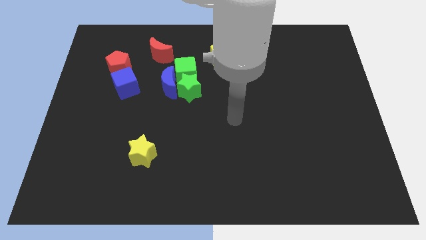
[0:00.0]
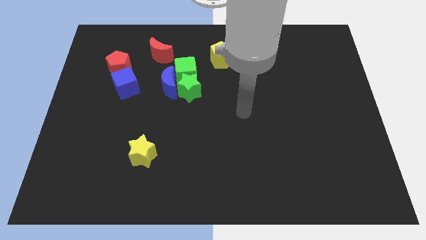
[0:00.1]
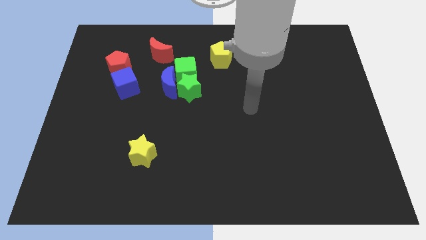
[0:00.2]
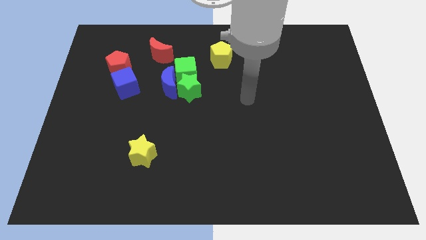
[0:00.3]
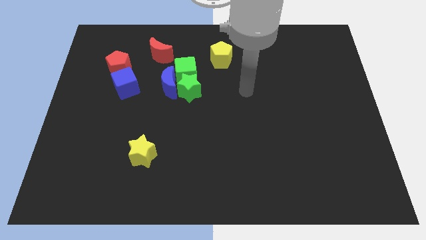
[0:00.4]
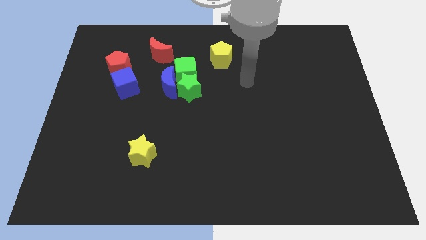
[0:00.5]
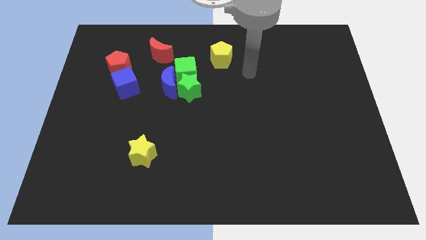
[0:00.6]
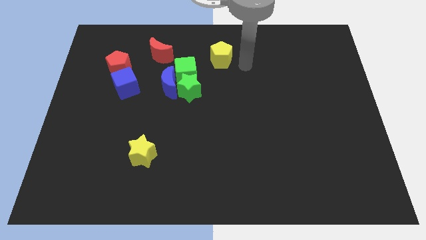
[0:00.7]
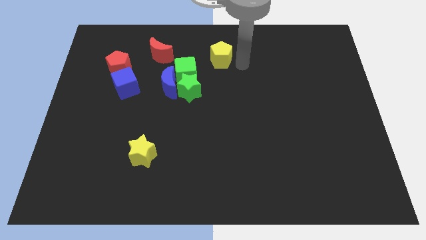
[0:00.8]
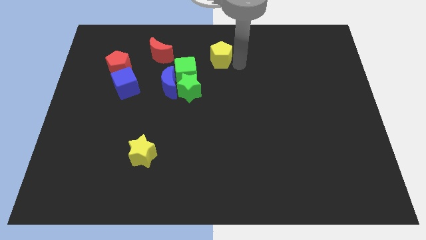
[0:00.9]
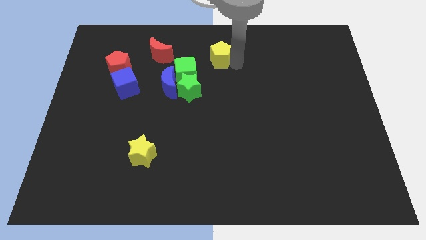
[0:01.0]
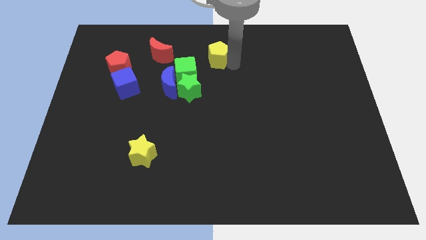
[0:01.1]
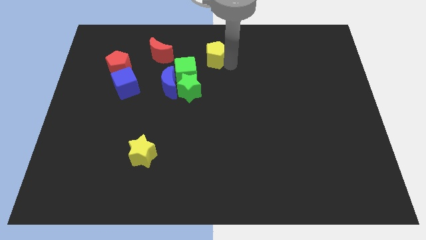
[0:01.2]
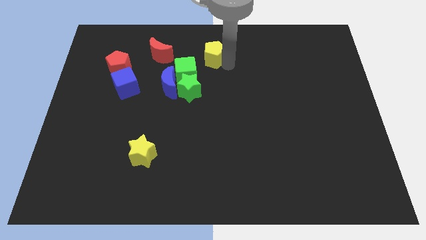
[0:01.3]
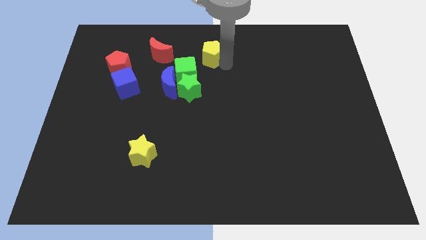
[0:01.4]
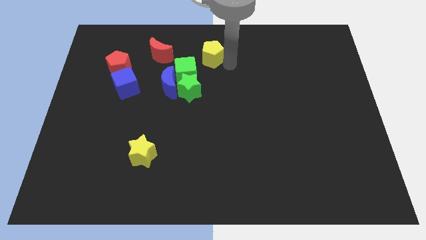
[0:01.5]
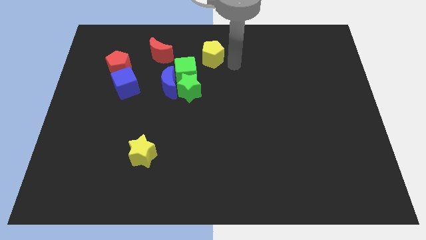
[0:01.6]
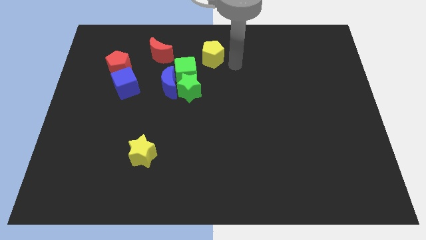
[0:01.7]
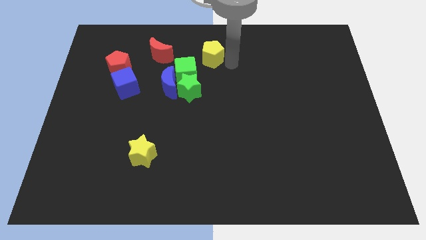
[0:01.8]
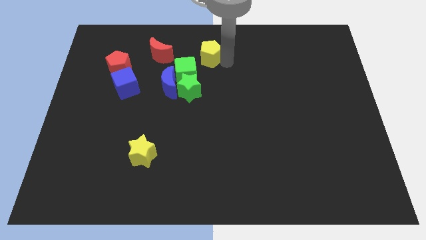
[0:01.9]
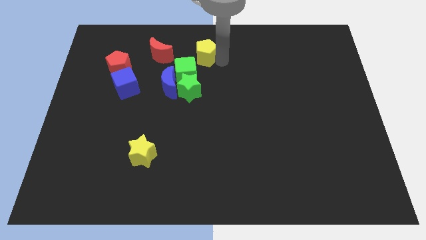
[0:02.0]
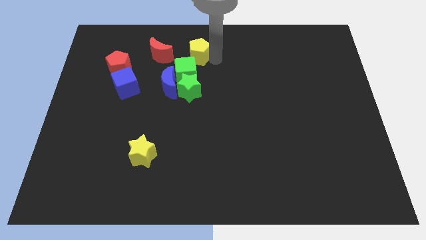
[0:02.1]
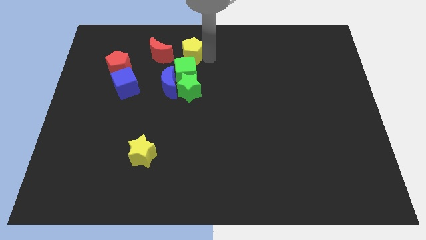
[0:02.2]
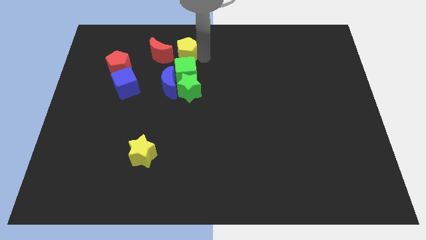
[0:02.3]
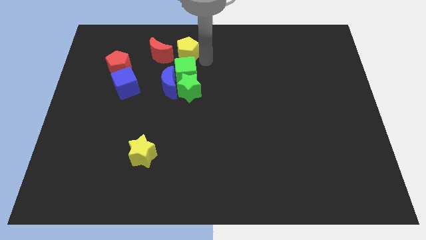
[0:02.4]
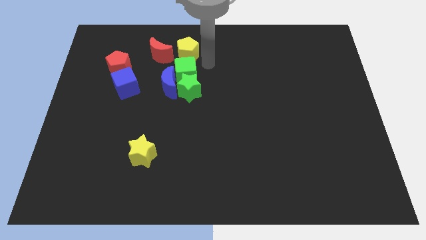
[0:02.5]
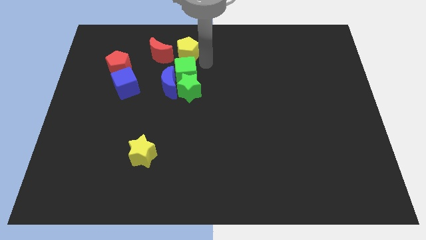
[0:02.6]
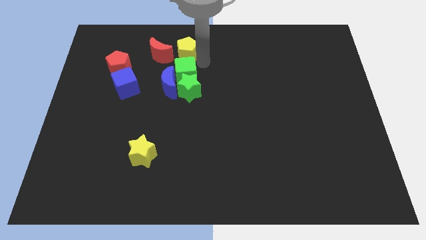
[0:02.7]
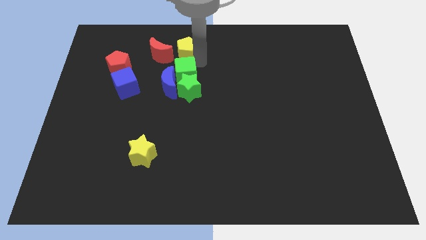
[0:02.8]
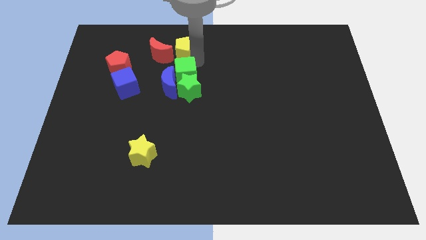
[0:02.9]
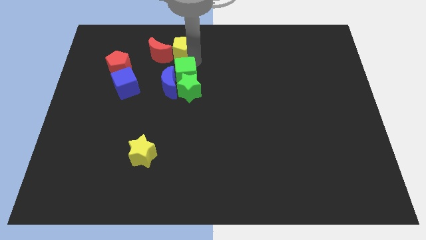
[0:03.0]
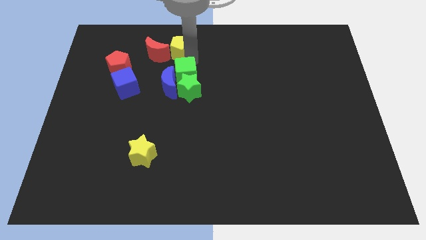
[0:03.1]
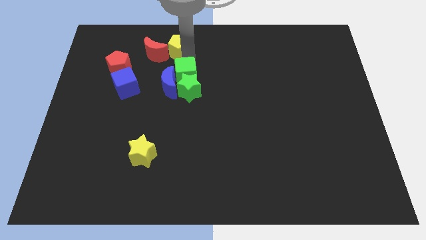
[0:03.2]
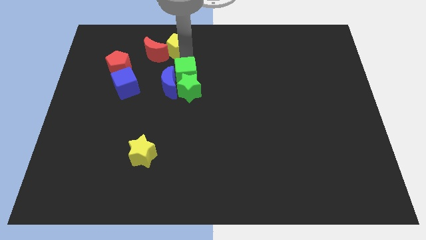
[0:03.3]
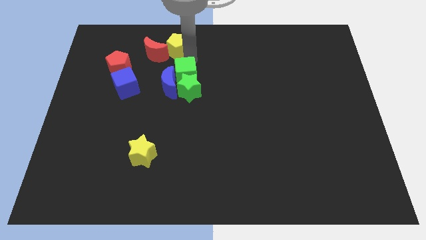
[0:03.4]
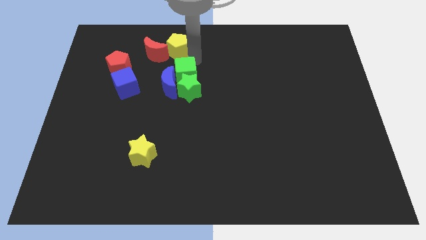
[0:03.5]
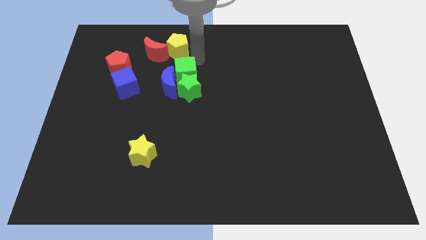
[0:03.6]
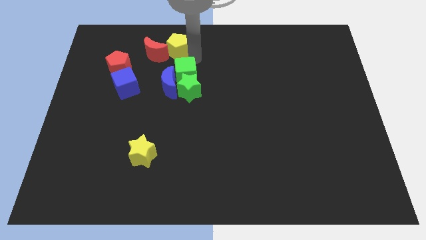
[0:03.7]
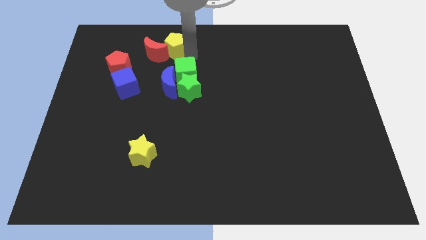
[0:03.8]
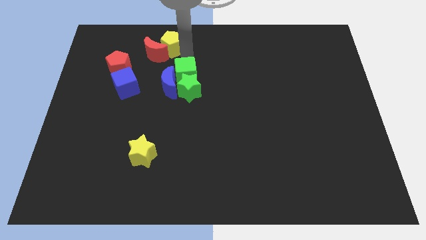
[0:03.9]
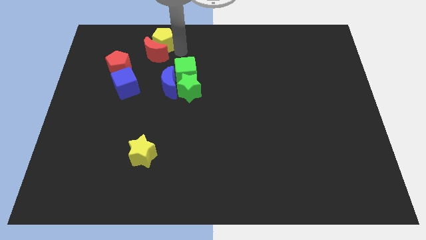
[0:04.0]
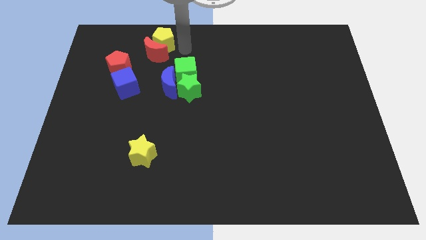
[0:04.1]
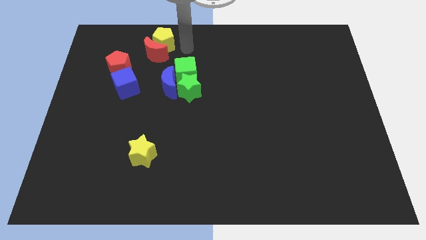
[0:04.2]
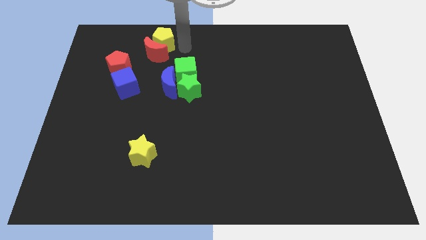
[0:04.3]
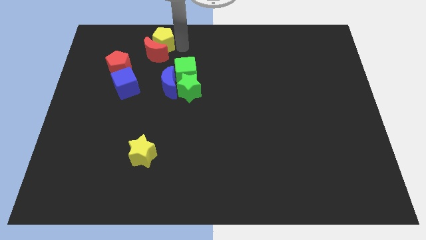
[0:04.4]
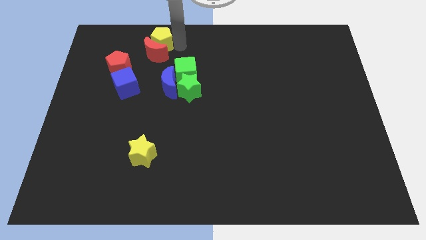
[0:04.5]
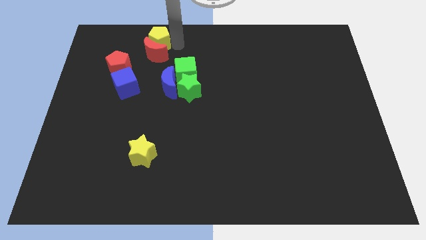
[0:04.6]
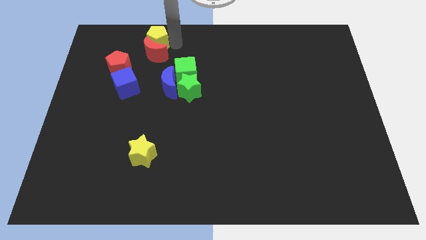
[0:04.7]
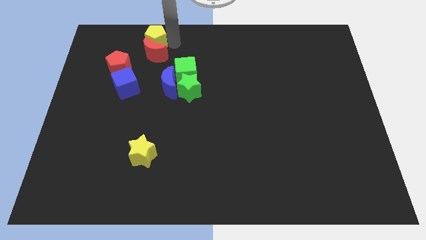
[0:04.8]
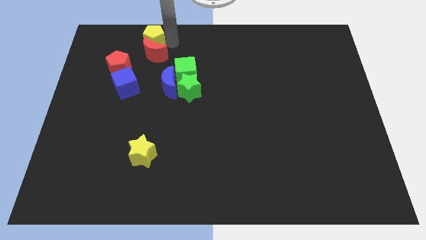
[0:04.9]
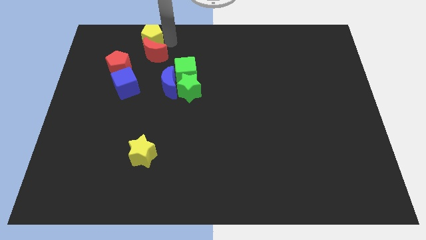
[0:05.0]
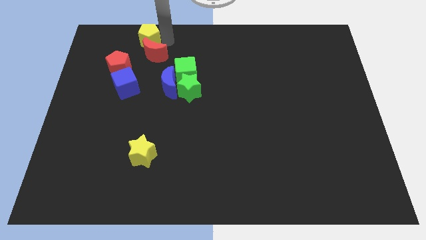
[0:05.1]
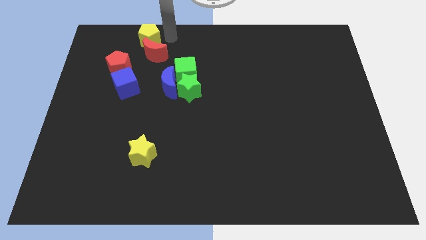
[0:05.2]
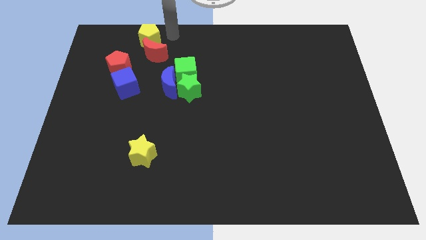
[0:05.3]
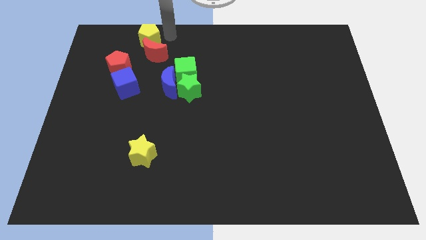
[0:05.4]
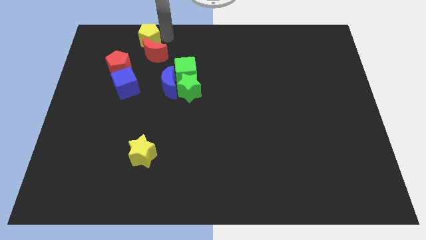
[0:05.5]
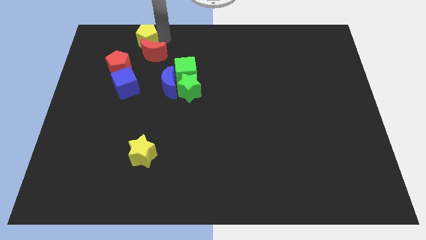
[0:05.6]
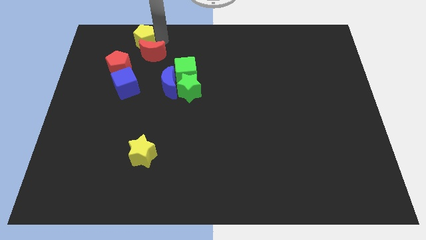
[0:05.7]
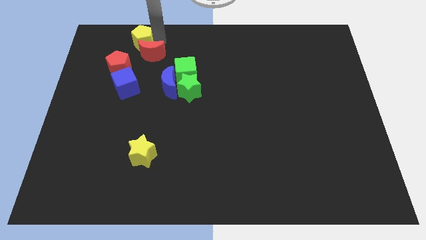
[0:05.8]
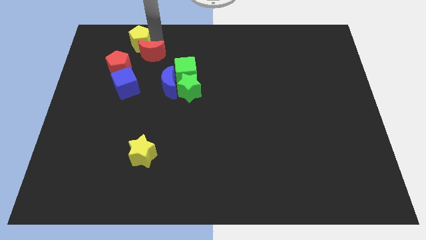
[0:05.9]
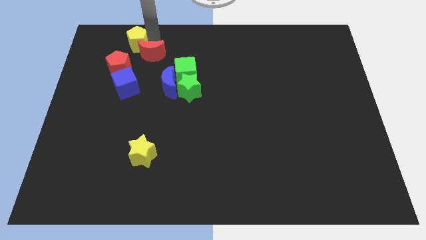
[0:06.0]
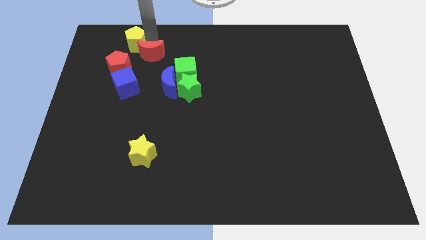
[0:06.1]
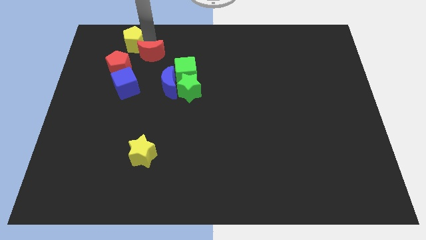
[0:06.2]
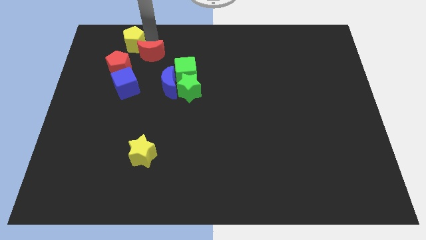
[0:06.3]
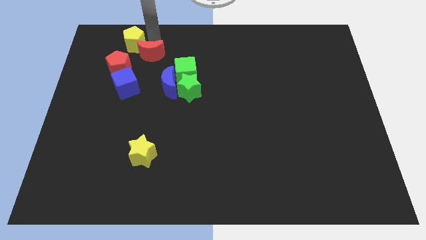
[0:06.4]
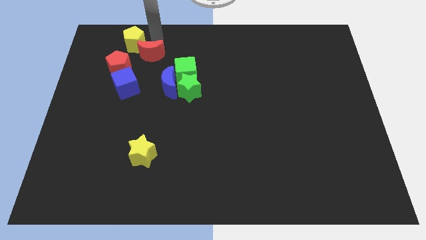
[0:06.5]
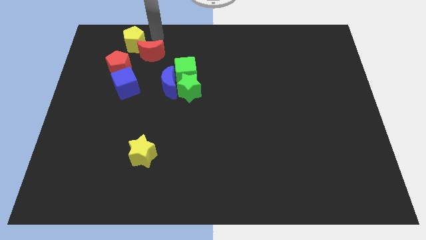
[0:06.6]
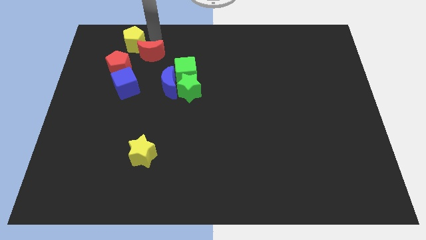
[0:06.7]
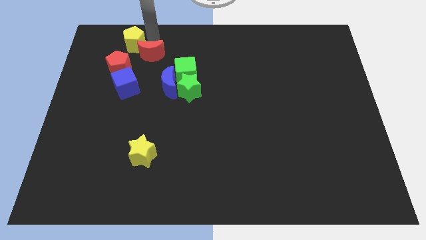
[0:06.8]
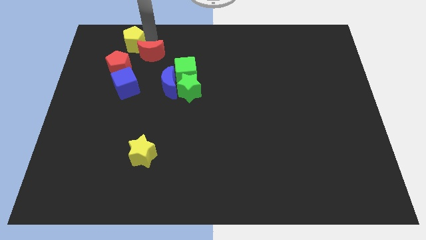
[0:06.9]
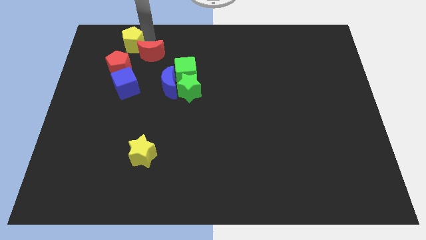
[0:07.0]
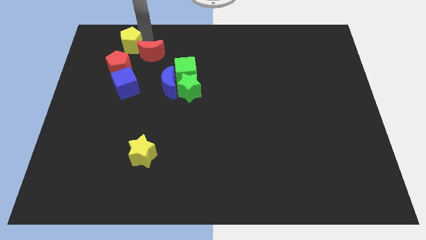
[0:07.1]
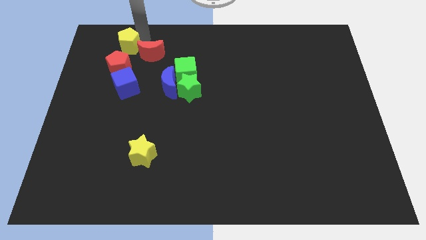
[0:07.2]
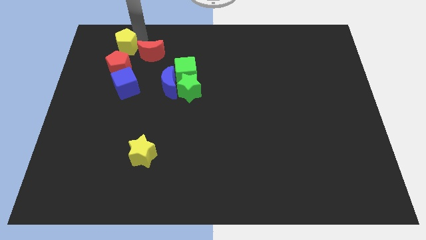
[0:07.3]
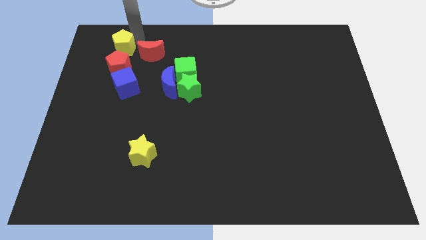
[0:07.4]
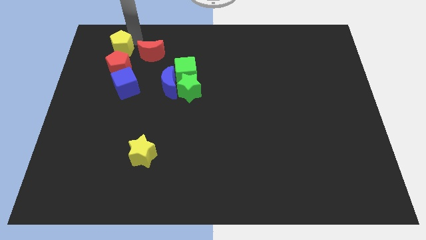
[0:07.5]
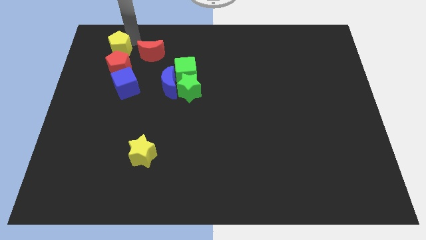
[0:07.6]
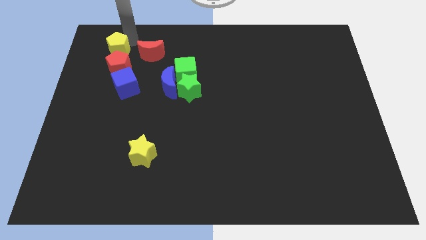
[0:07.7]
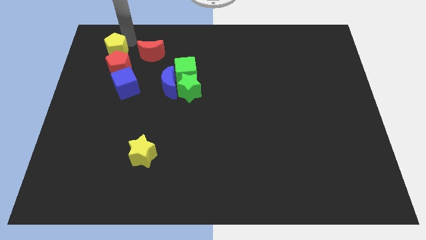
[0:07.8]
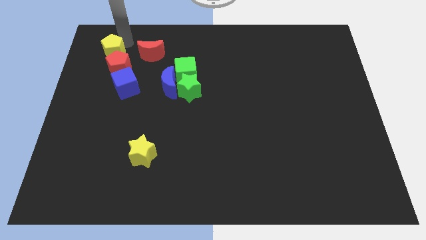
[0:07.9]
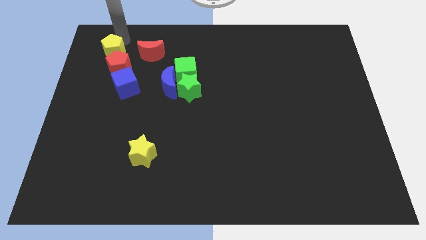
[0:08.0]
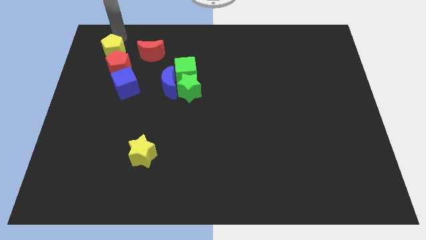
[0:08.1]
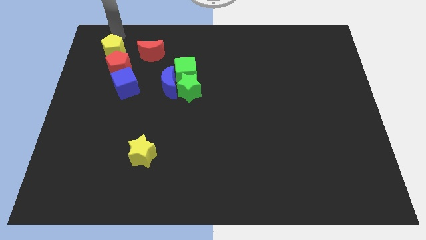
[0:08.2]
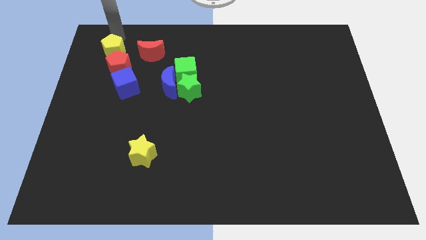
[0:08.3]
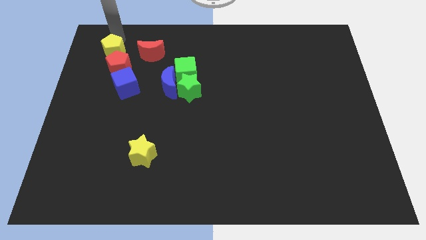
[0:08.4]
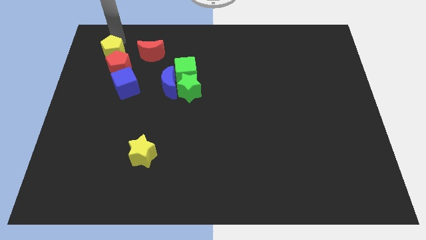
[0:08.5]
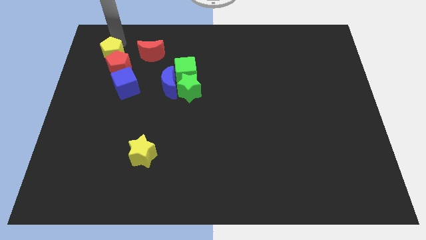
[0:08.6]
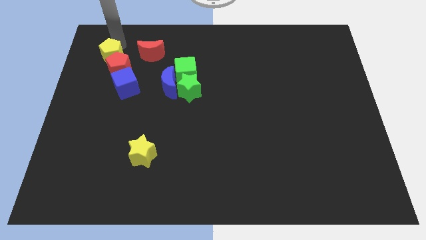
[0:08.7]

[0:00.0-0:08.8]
push the yellow pentagon diagonally up and to the left of the blue cube
